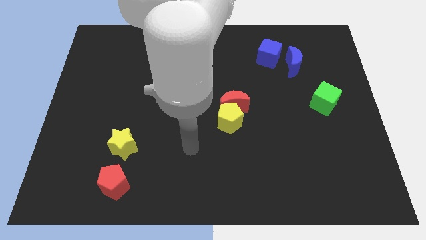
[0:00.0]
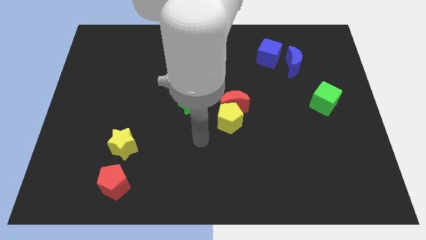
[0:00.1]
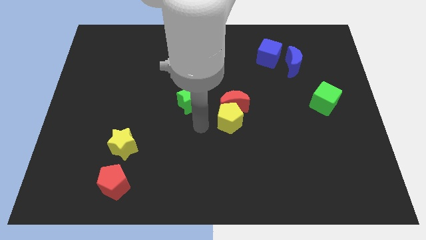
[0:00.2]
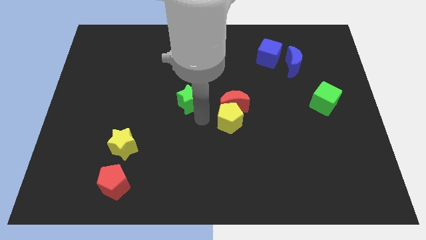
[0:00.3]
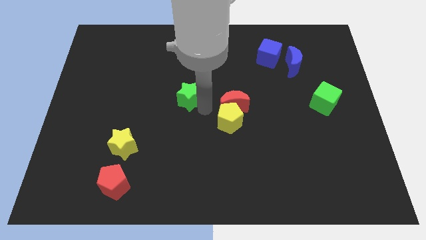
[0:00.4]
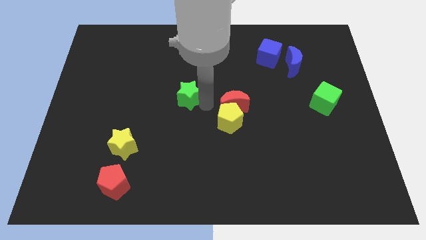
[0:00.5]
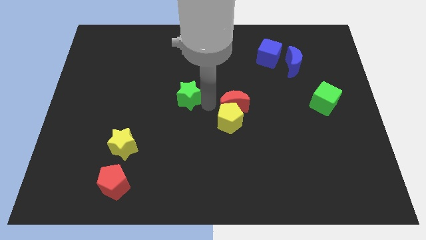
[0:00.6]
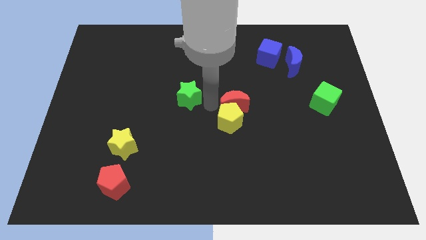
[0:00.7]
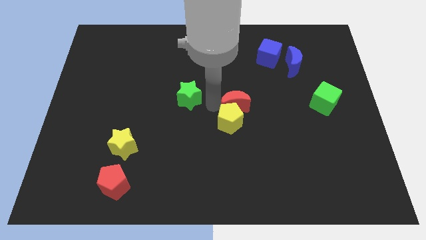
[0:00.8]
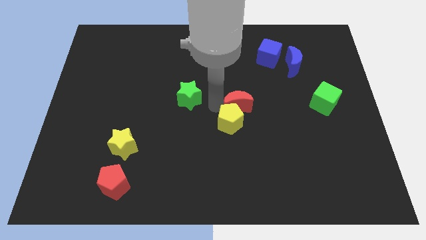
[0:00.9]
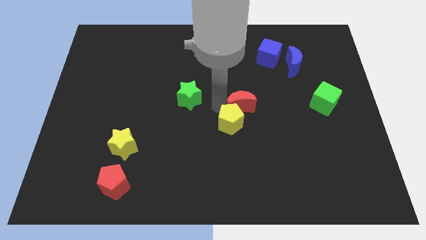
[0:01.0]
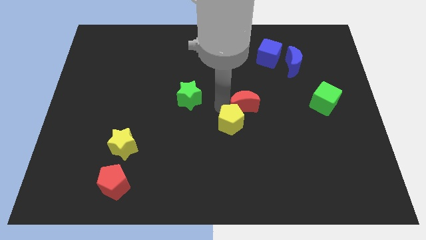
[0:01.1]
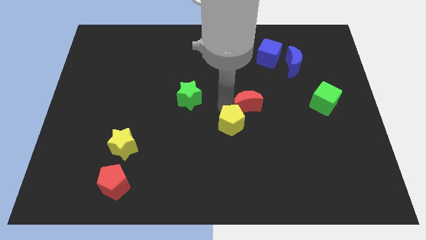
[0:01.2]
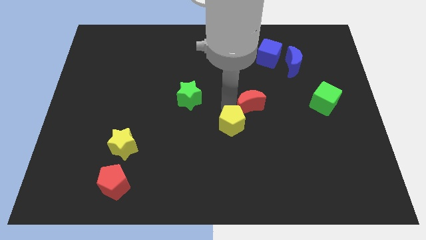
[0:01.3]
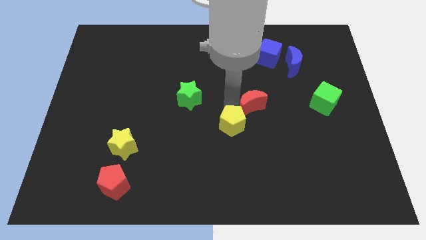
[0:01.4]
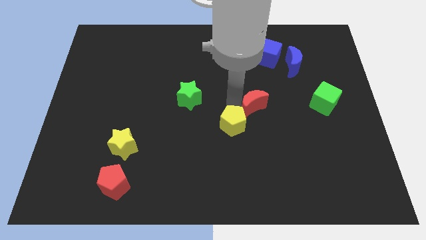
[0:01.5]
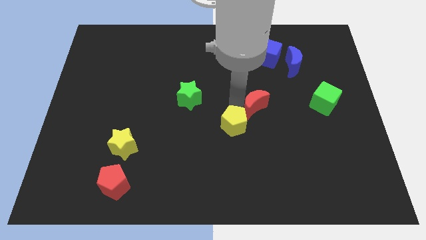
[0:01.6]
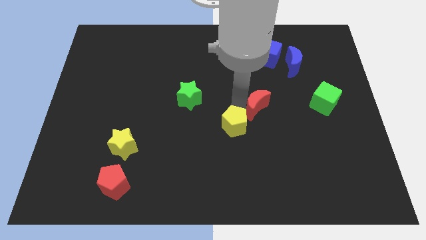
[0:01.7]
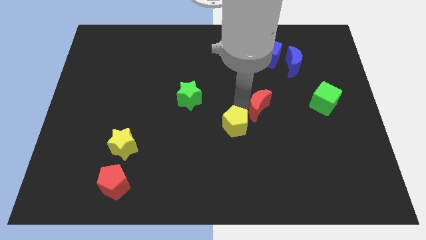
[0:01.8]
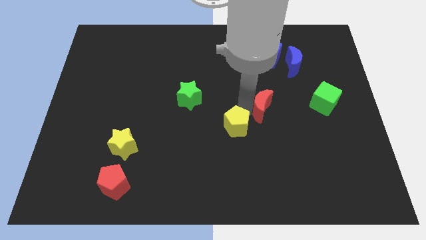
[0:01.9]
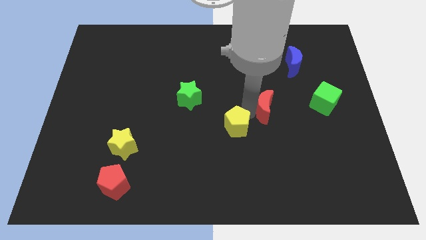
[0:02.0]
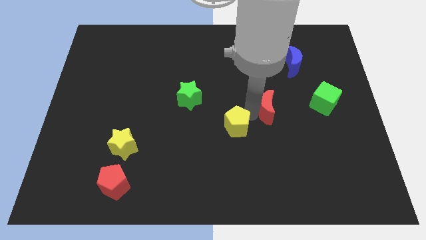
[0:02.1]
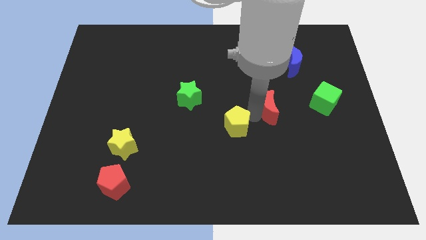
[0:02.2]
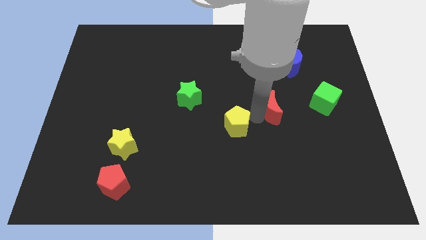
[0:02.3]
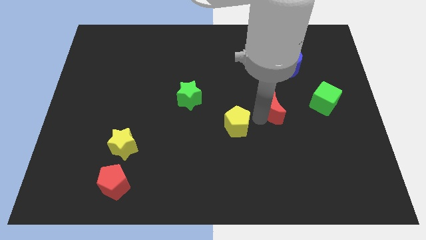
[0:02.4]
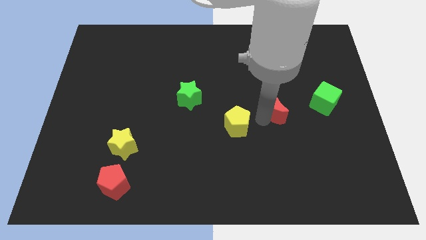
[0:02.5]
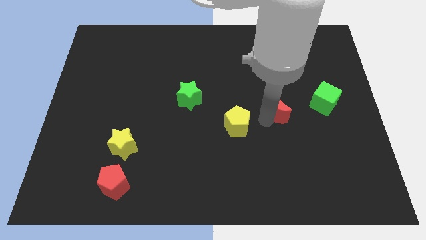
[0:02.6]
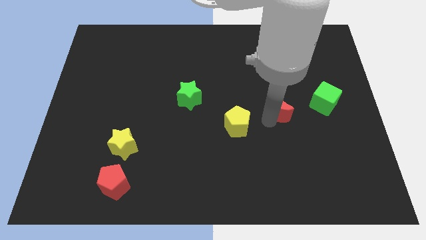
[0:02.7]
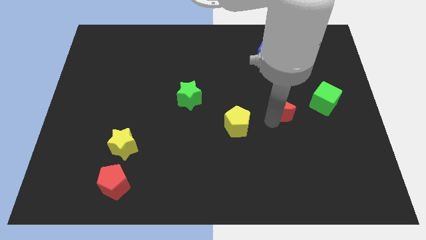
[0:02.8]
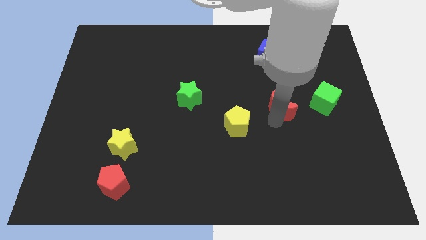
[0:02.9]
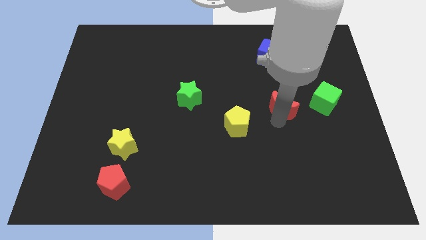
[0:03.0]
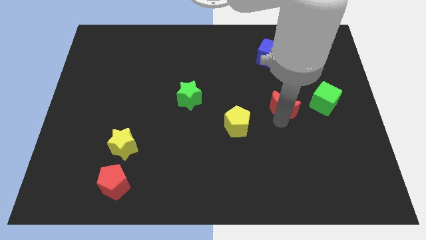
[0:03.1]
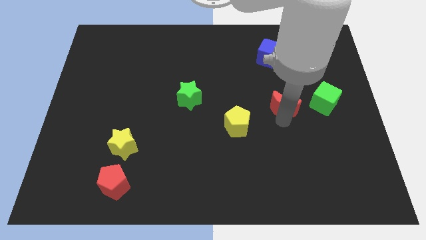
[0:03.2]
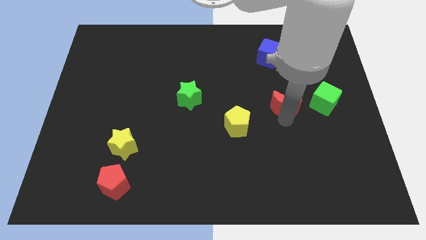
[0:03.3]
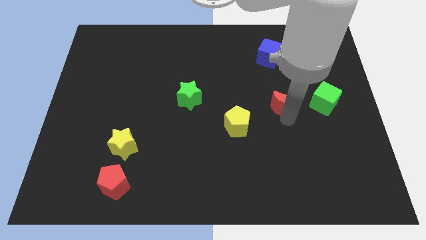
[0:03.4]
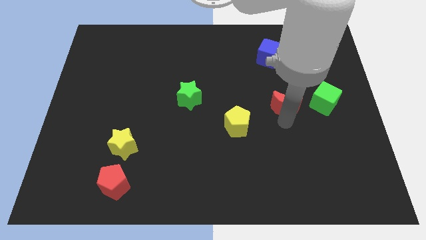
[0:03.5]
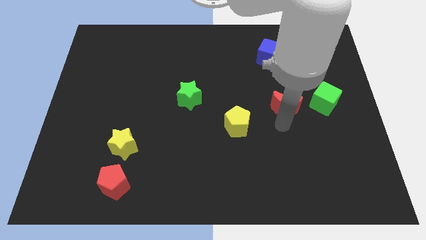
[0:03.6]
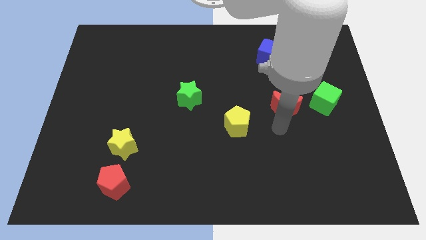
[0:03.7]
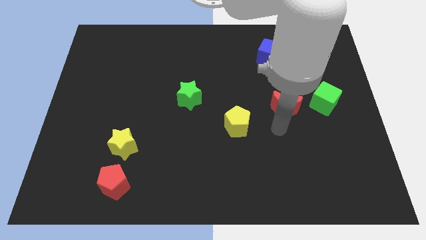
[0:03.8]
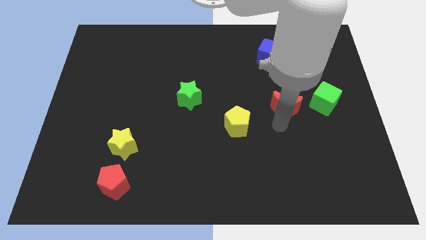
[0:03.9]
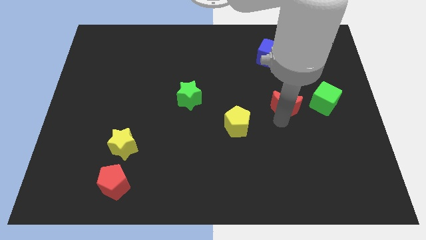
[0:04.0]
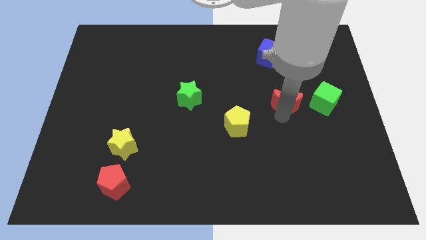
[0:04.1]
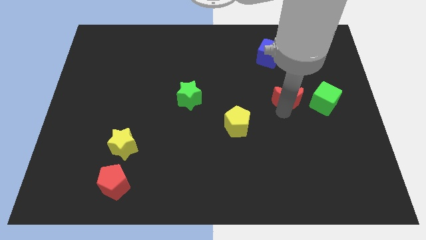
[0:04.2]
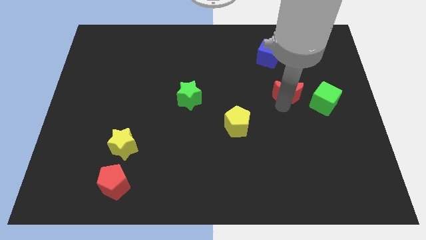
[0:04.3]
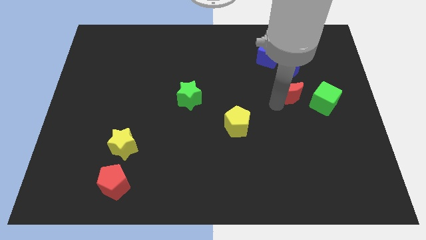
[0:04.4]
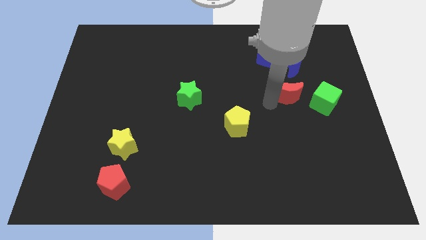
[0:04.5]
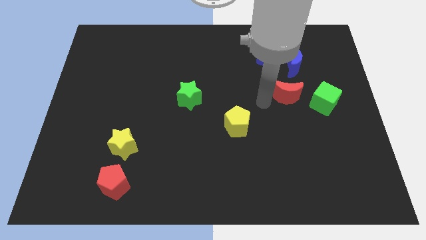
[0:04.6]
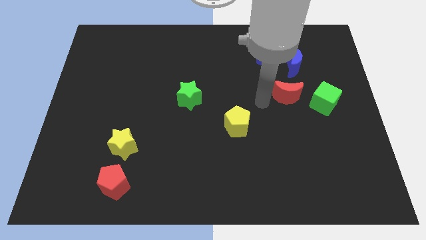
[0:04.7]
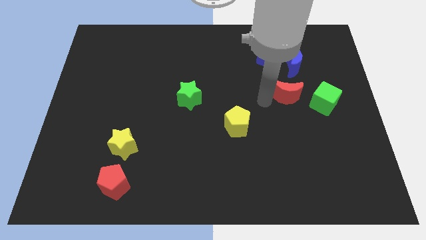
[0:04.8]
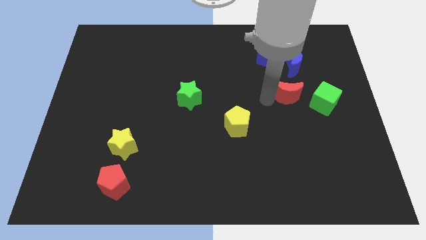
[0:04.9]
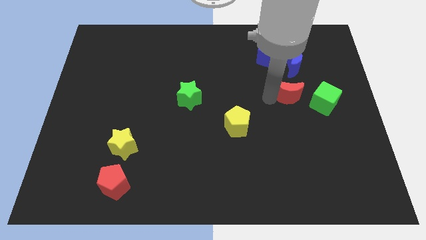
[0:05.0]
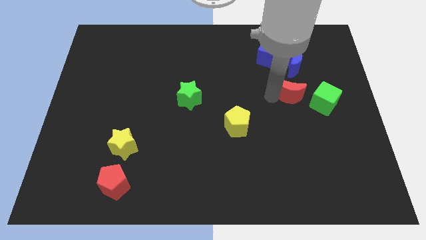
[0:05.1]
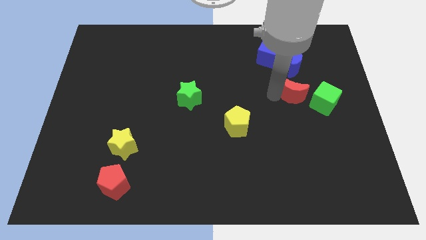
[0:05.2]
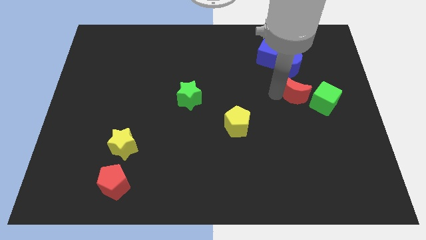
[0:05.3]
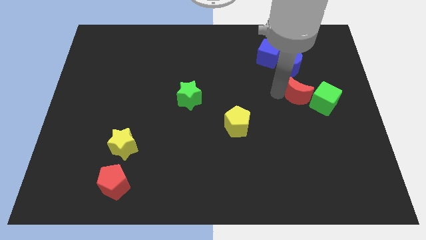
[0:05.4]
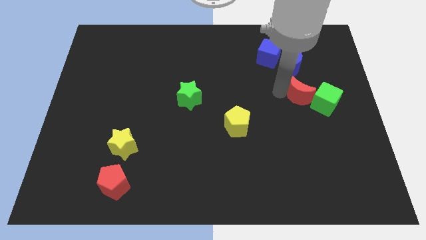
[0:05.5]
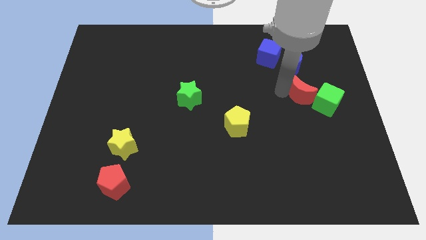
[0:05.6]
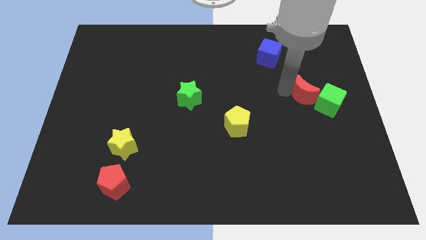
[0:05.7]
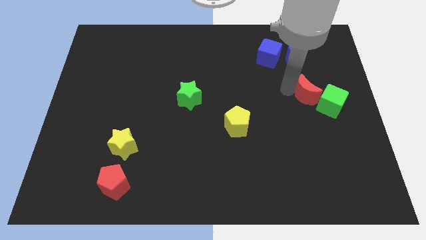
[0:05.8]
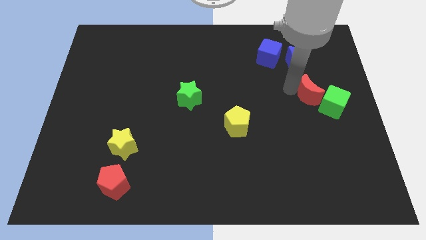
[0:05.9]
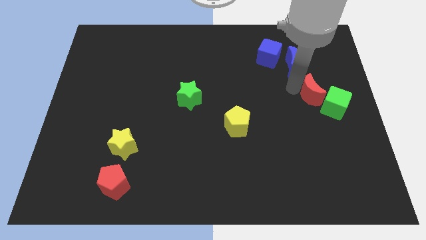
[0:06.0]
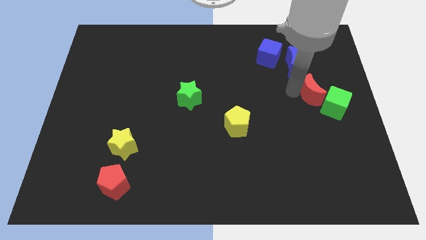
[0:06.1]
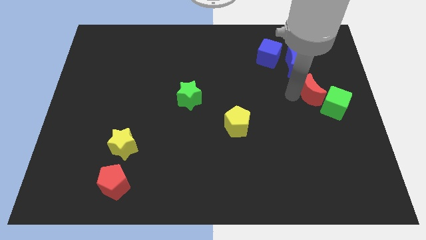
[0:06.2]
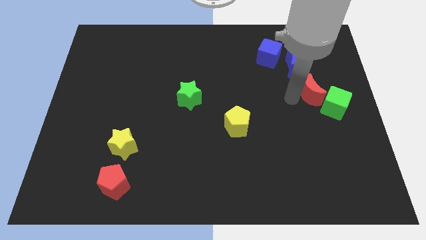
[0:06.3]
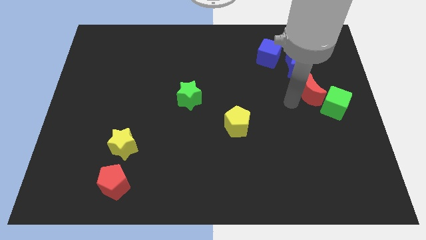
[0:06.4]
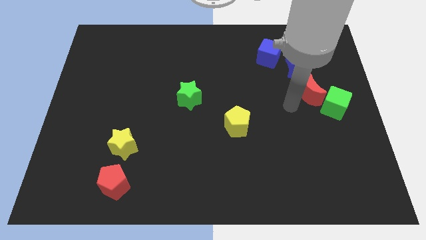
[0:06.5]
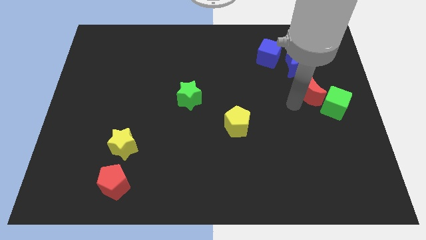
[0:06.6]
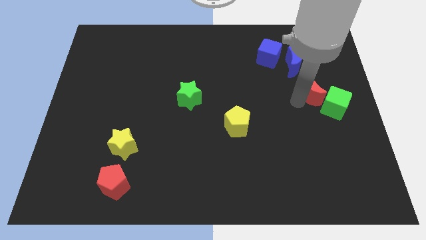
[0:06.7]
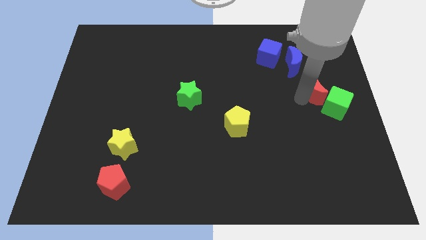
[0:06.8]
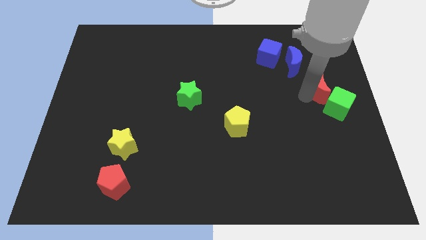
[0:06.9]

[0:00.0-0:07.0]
put the red moon to the center right
